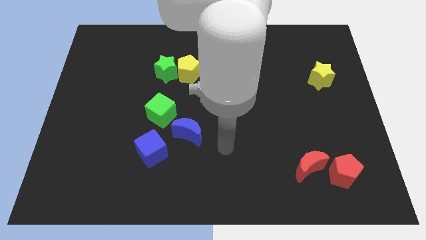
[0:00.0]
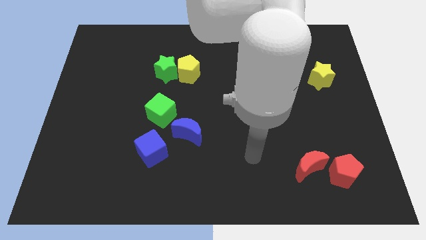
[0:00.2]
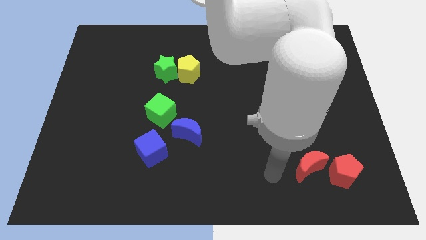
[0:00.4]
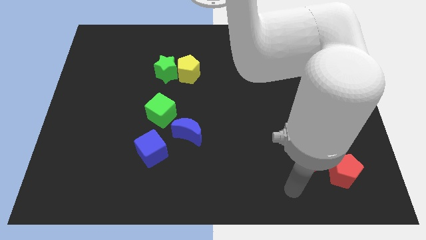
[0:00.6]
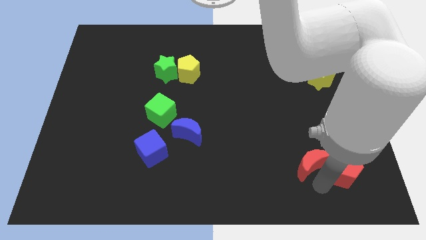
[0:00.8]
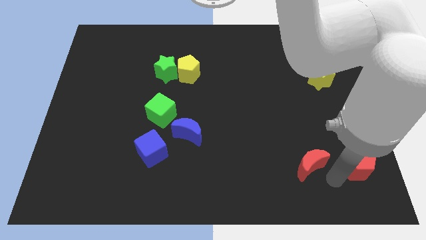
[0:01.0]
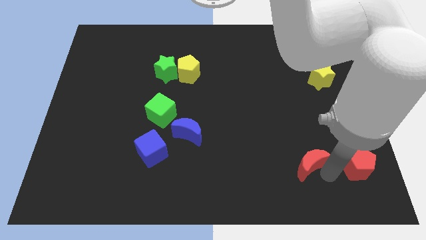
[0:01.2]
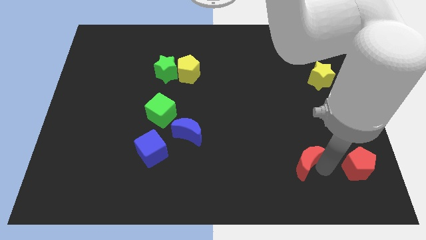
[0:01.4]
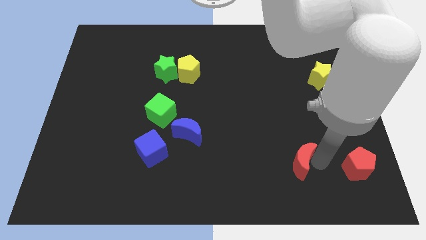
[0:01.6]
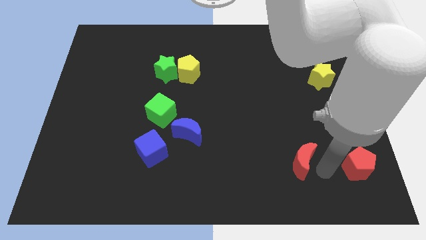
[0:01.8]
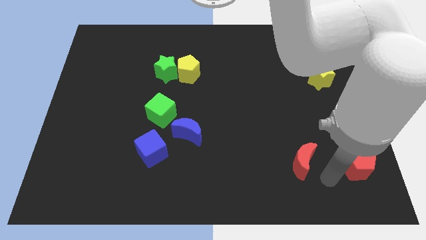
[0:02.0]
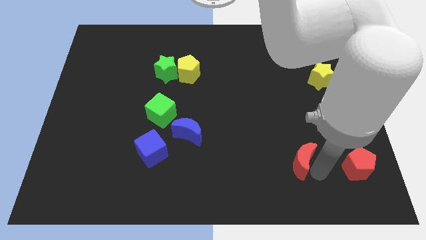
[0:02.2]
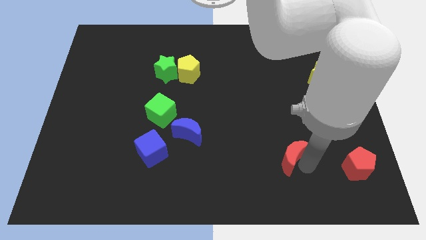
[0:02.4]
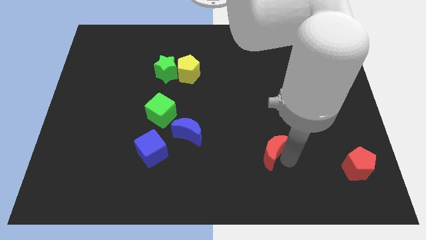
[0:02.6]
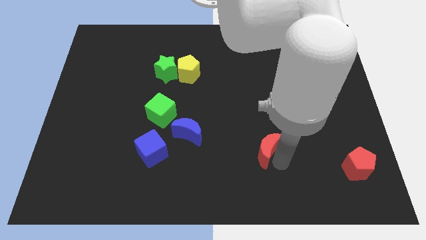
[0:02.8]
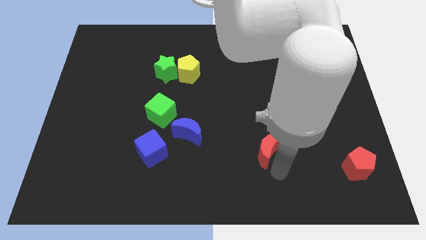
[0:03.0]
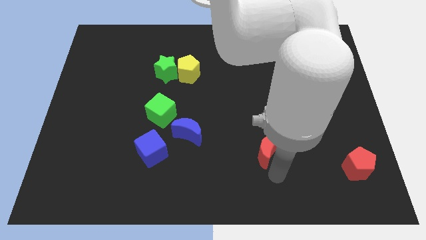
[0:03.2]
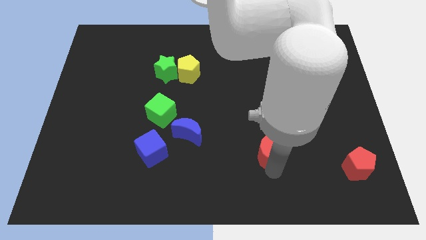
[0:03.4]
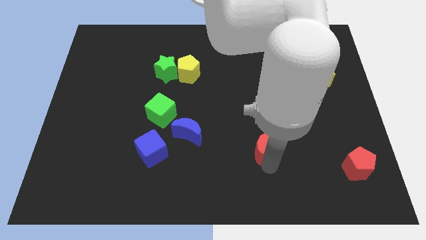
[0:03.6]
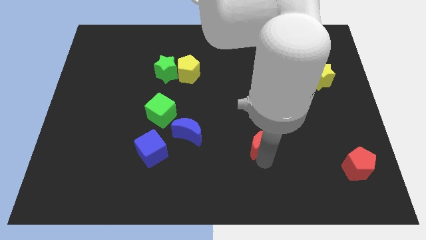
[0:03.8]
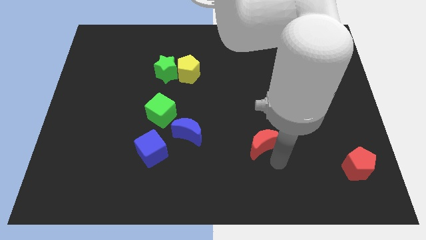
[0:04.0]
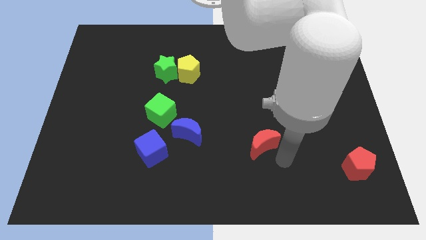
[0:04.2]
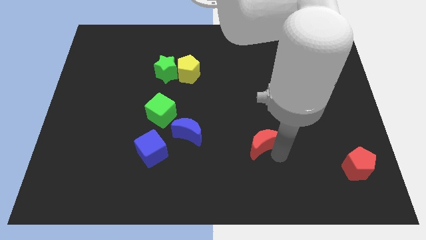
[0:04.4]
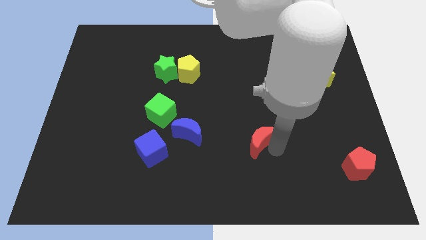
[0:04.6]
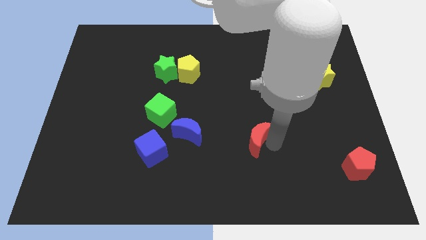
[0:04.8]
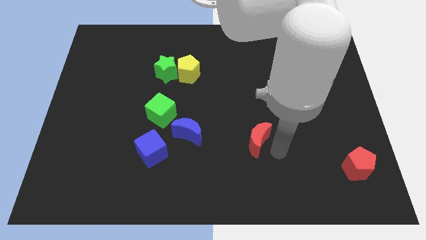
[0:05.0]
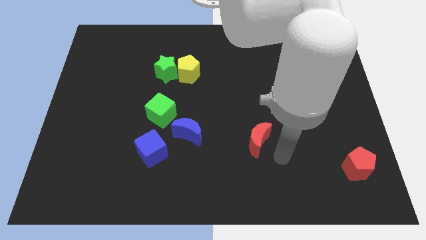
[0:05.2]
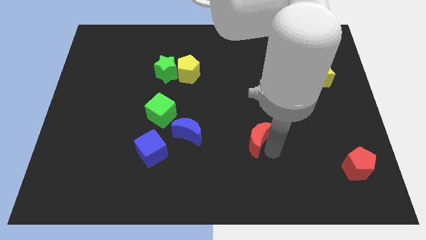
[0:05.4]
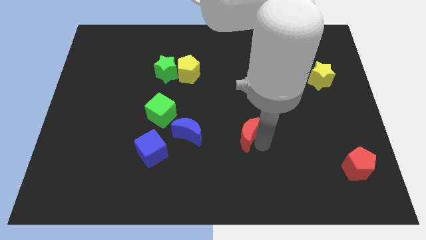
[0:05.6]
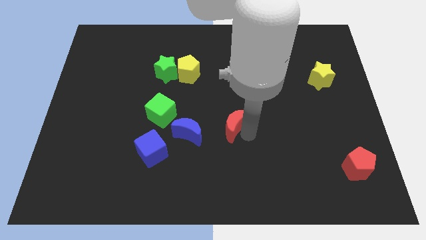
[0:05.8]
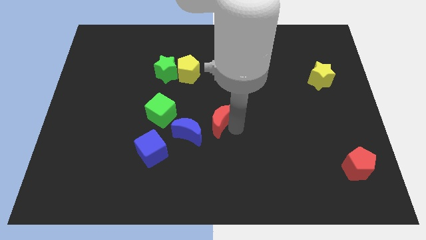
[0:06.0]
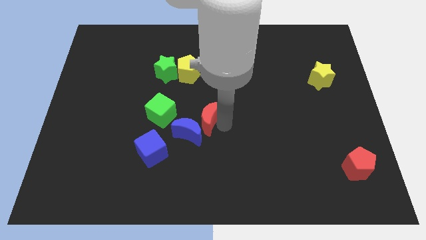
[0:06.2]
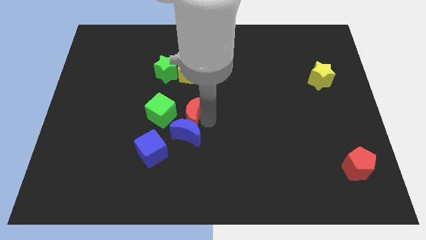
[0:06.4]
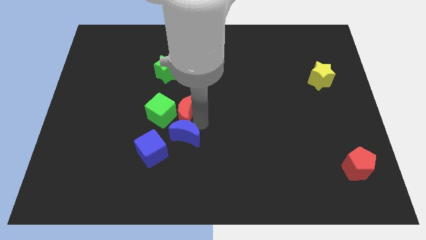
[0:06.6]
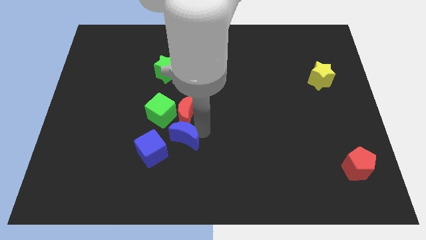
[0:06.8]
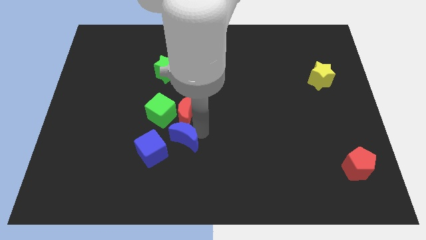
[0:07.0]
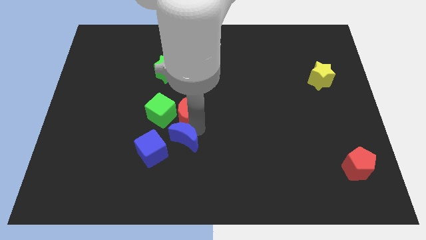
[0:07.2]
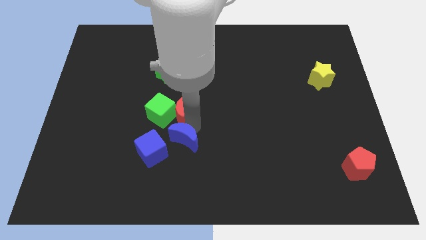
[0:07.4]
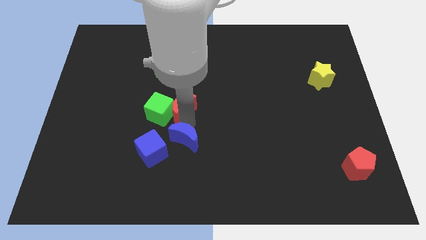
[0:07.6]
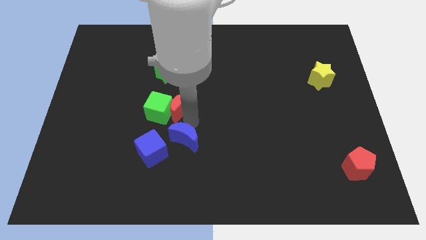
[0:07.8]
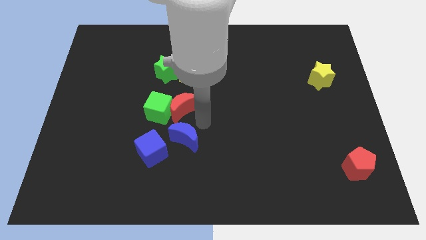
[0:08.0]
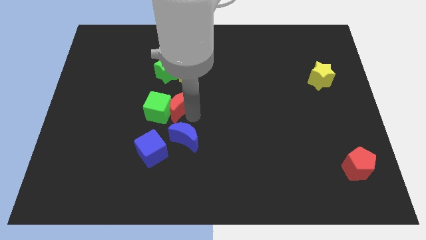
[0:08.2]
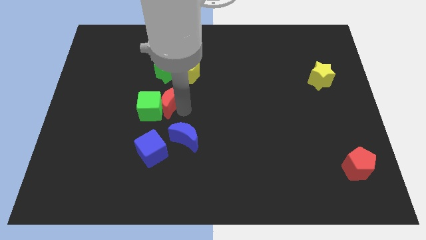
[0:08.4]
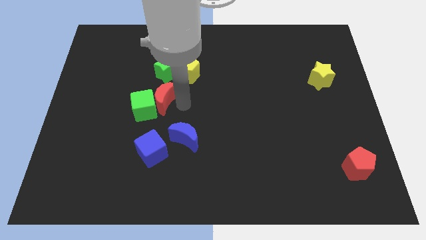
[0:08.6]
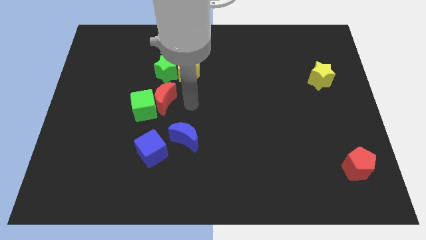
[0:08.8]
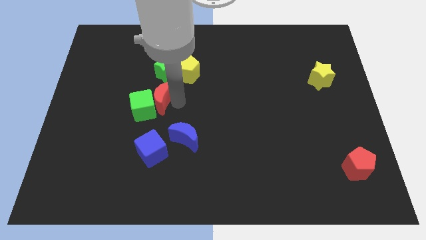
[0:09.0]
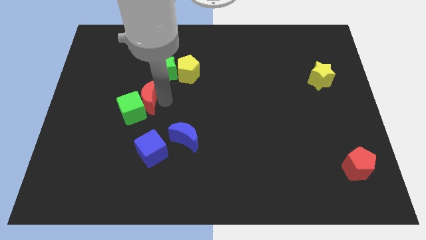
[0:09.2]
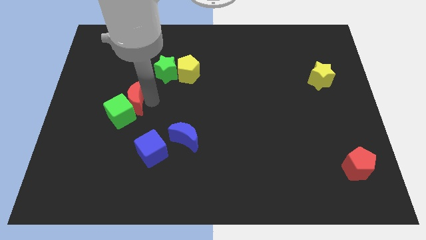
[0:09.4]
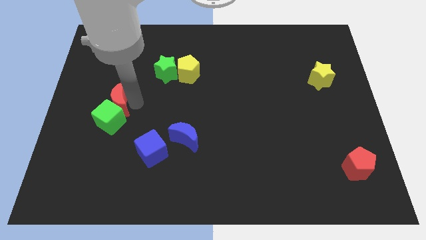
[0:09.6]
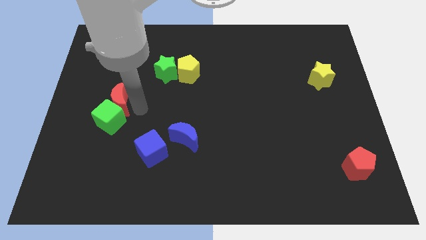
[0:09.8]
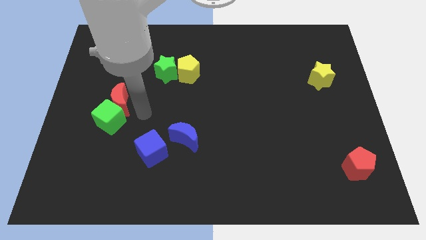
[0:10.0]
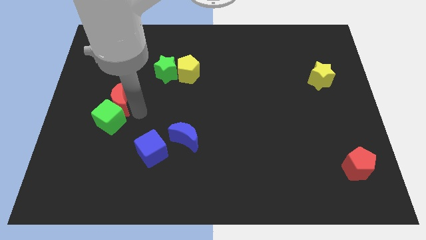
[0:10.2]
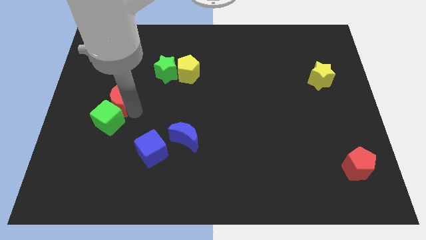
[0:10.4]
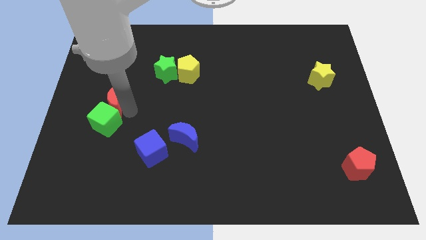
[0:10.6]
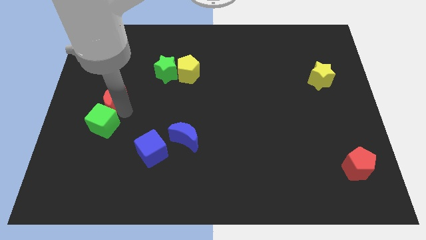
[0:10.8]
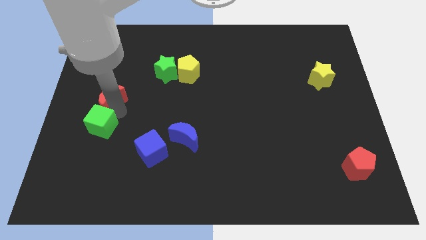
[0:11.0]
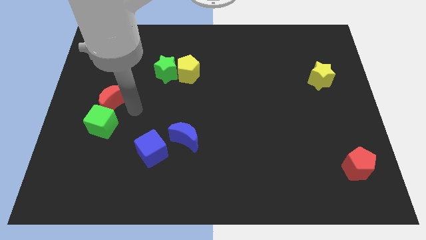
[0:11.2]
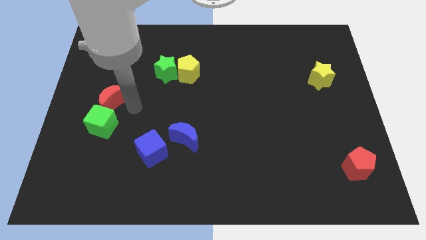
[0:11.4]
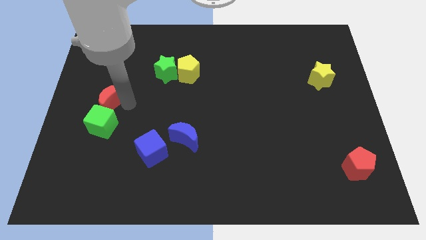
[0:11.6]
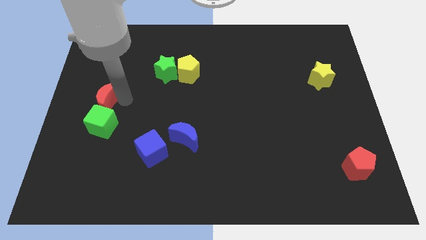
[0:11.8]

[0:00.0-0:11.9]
push the red moon to the left side of the board

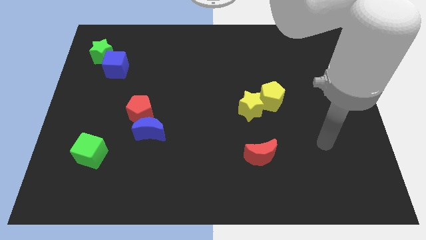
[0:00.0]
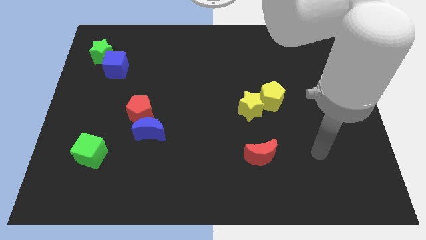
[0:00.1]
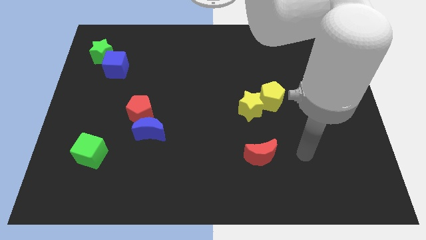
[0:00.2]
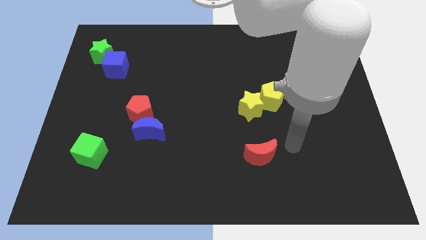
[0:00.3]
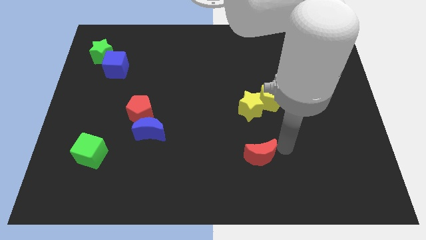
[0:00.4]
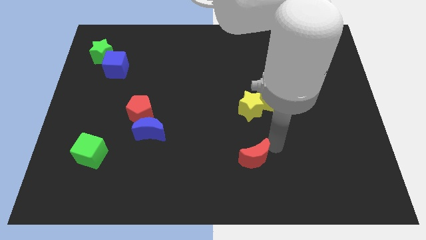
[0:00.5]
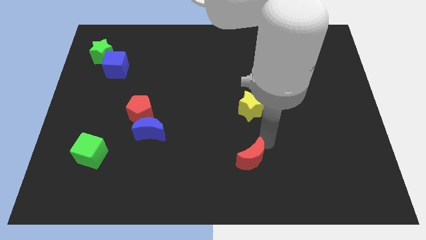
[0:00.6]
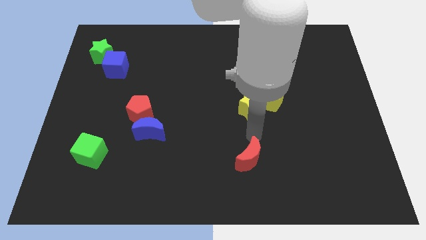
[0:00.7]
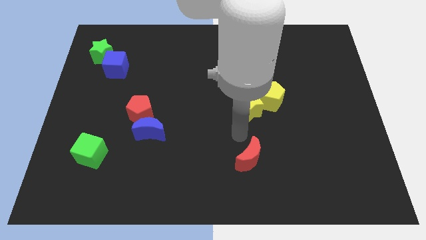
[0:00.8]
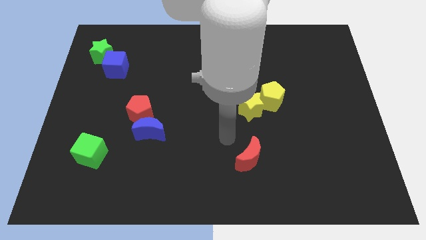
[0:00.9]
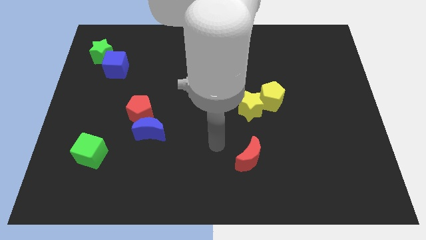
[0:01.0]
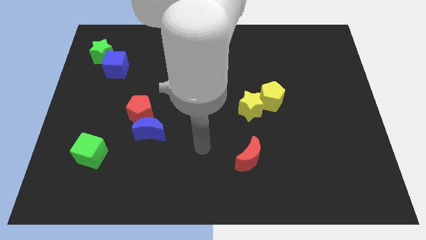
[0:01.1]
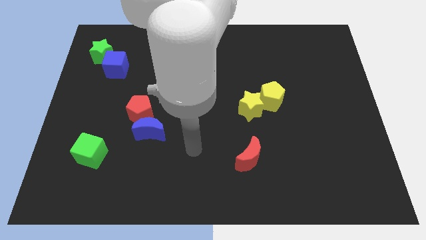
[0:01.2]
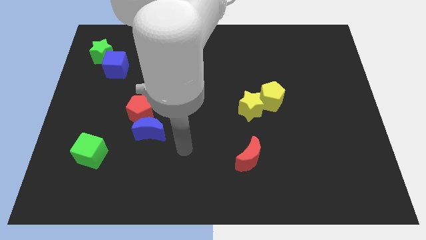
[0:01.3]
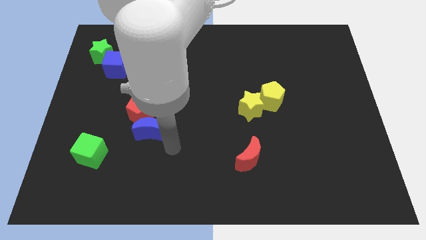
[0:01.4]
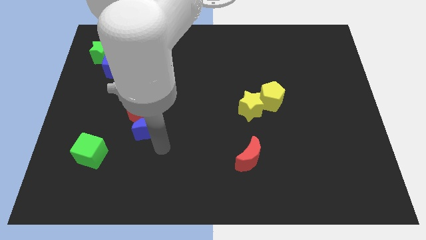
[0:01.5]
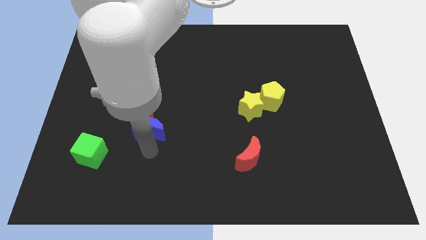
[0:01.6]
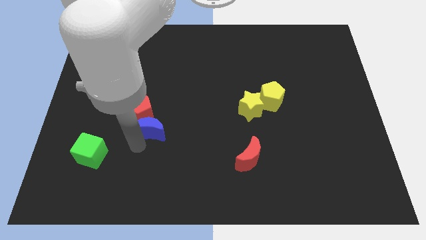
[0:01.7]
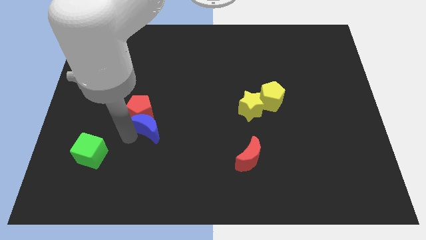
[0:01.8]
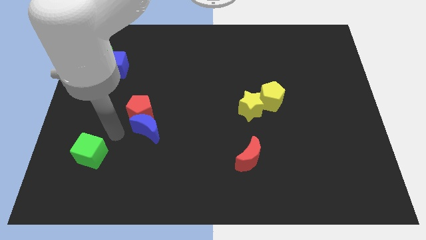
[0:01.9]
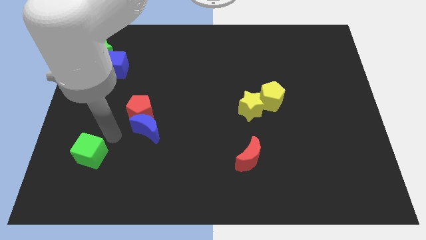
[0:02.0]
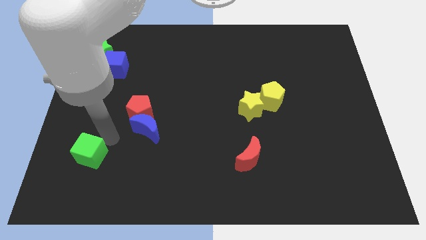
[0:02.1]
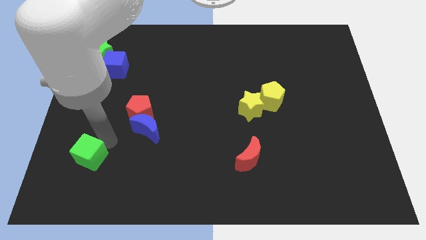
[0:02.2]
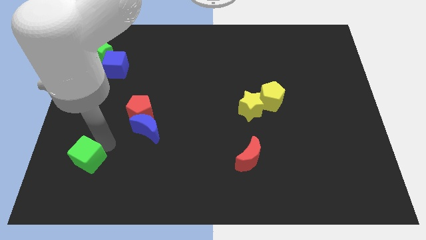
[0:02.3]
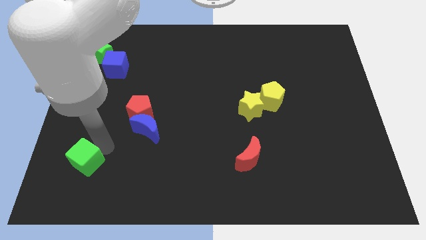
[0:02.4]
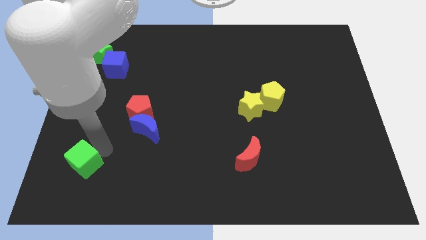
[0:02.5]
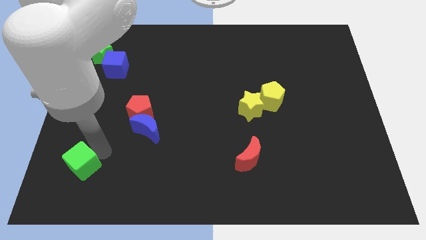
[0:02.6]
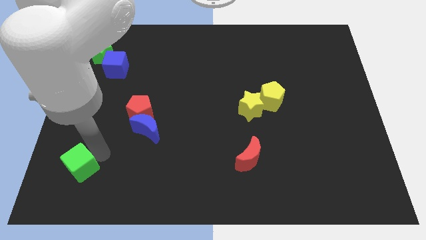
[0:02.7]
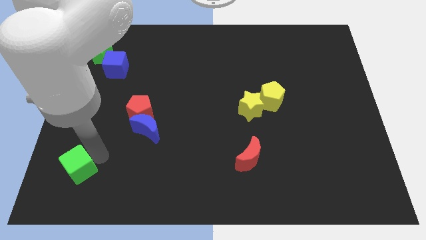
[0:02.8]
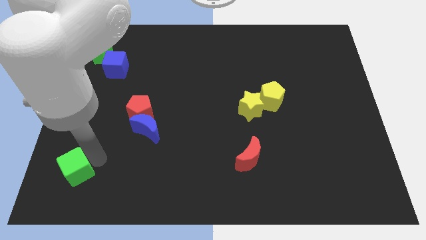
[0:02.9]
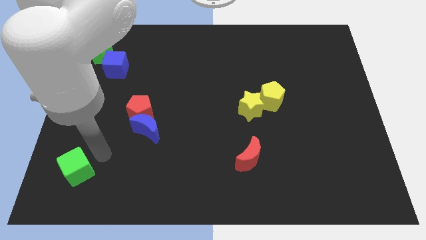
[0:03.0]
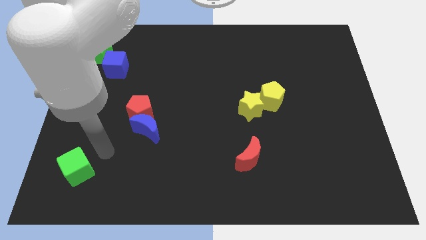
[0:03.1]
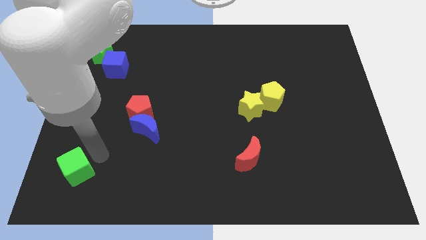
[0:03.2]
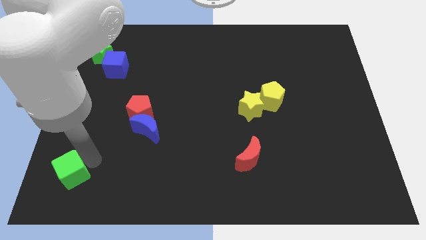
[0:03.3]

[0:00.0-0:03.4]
slide the green cube to the bottom left
